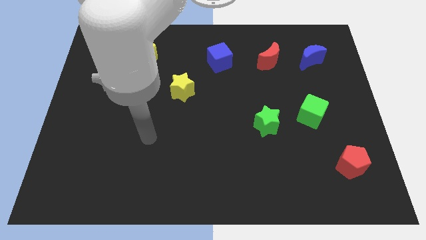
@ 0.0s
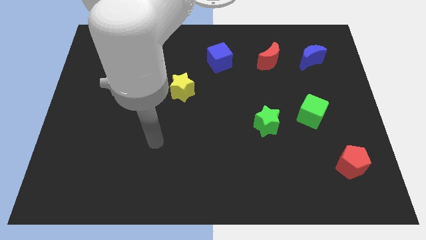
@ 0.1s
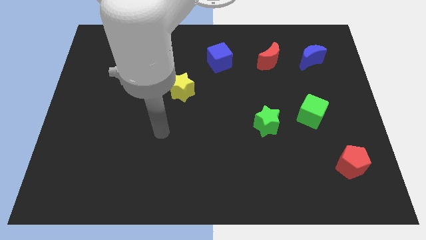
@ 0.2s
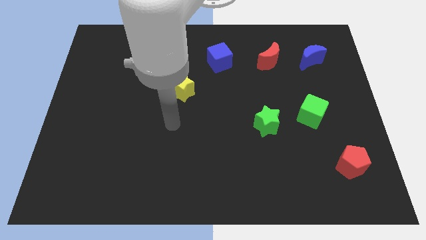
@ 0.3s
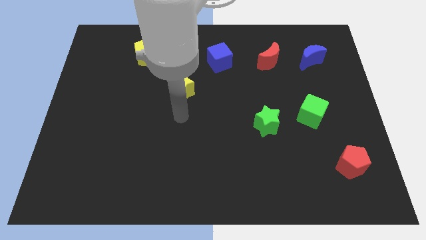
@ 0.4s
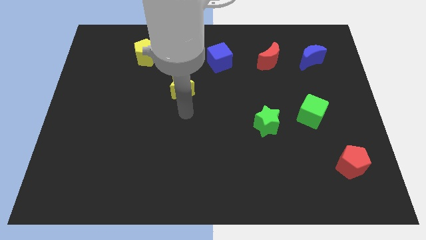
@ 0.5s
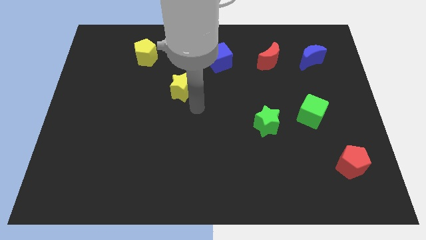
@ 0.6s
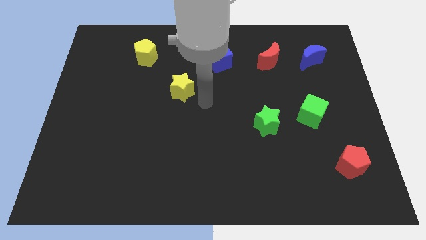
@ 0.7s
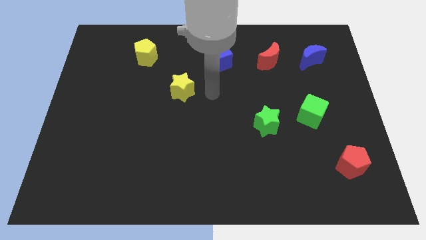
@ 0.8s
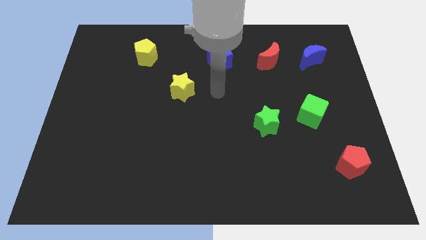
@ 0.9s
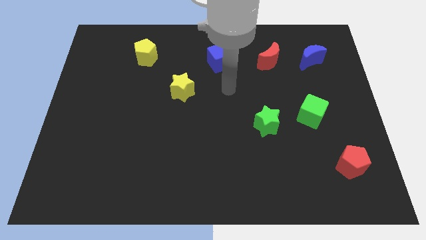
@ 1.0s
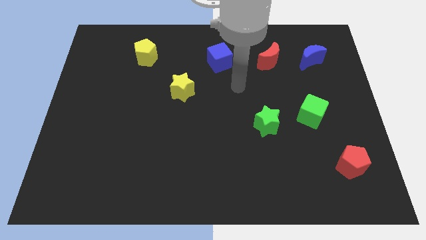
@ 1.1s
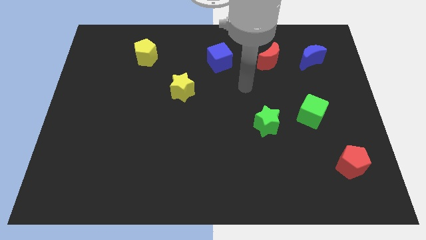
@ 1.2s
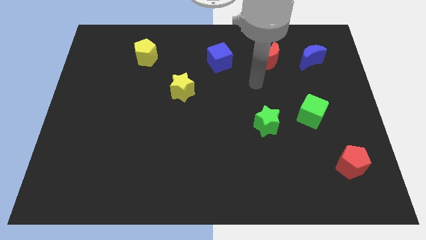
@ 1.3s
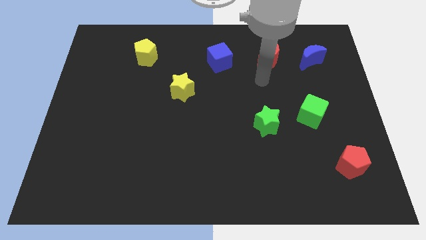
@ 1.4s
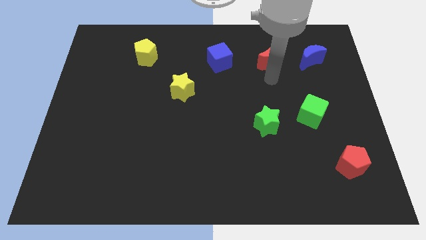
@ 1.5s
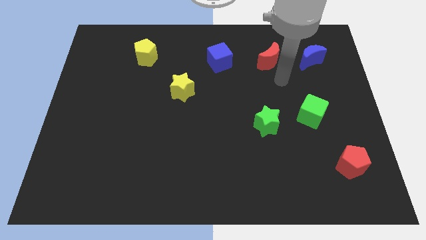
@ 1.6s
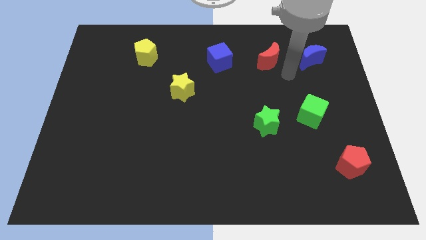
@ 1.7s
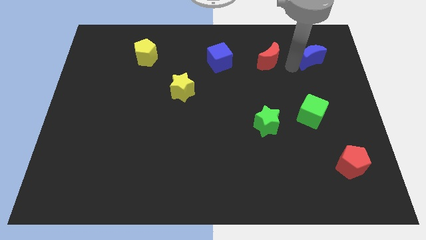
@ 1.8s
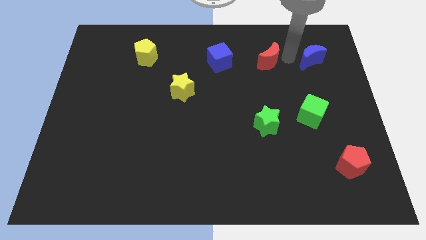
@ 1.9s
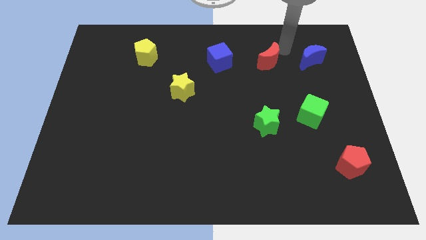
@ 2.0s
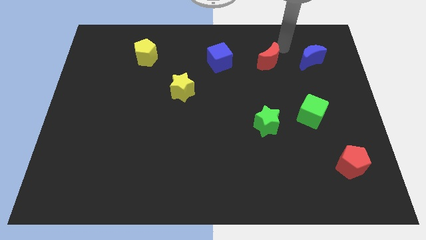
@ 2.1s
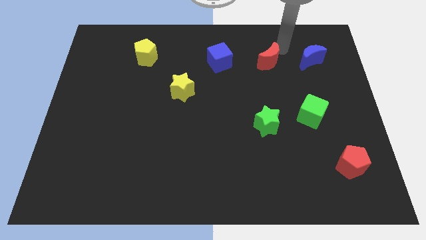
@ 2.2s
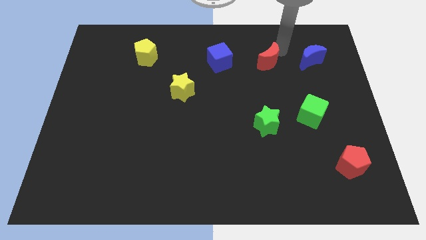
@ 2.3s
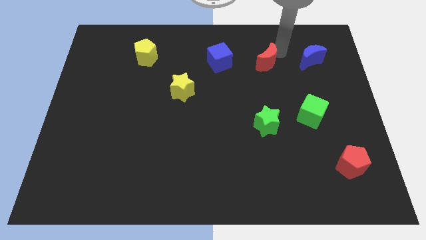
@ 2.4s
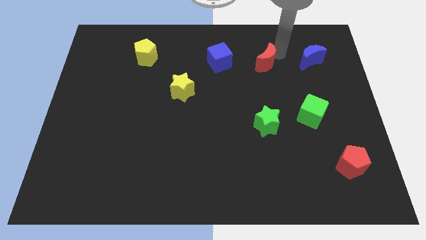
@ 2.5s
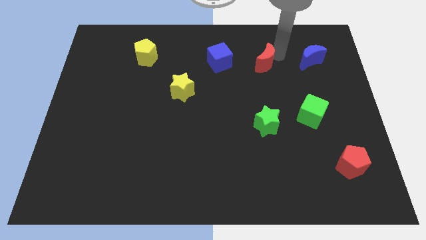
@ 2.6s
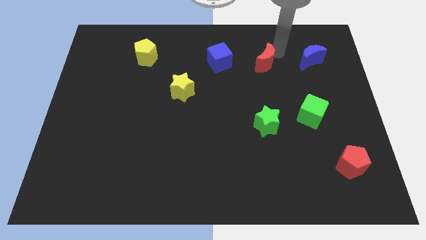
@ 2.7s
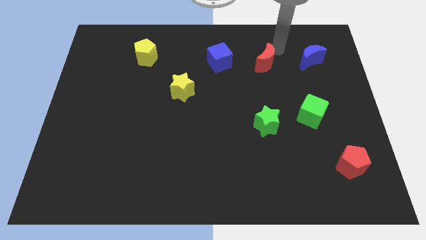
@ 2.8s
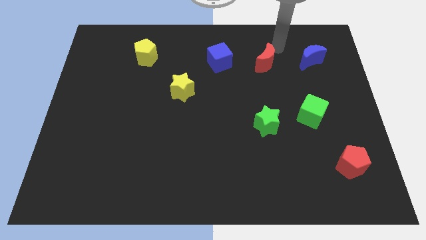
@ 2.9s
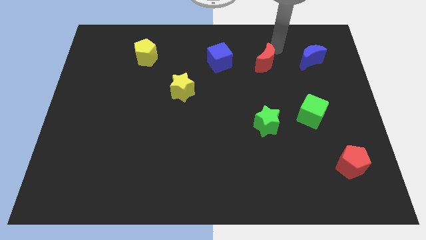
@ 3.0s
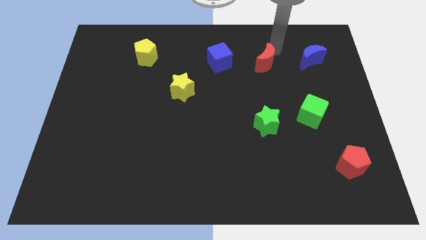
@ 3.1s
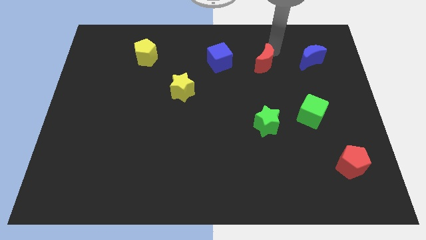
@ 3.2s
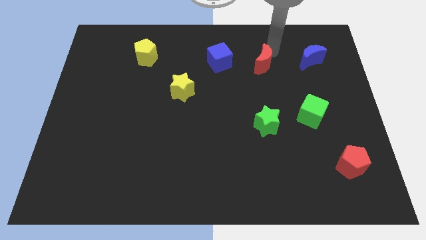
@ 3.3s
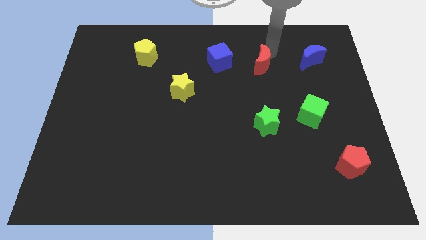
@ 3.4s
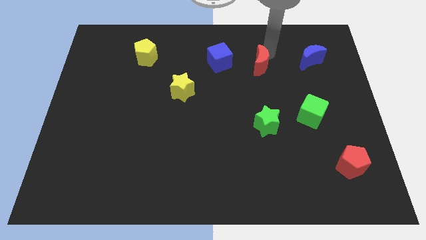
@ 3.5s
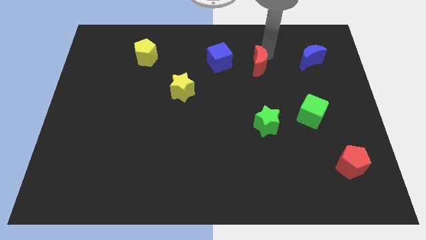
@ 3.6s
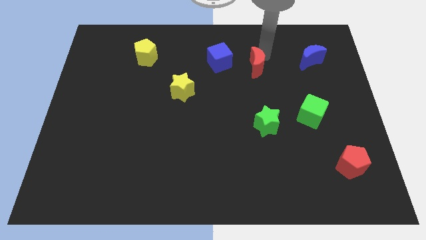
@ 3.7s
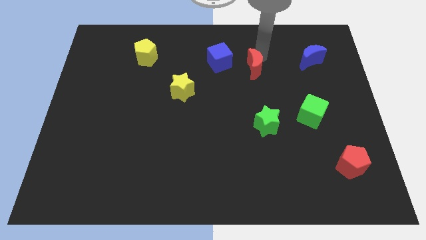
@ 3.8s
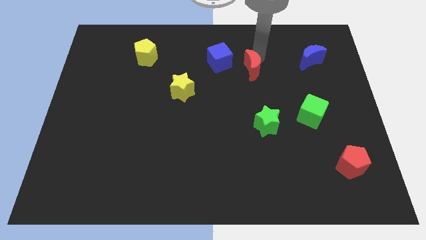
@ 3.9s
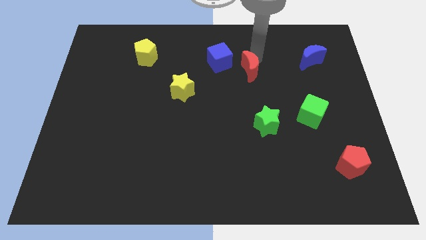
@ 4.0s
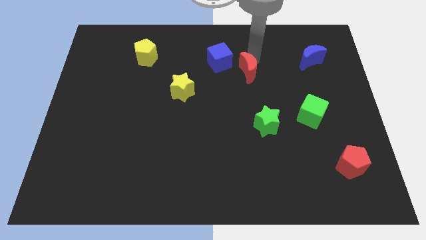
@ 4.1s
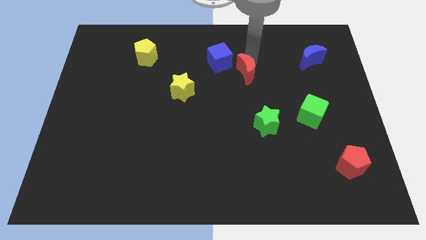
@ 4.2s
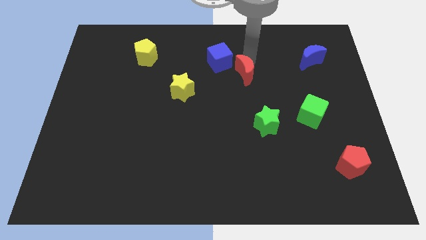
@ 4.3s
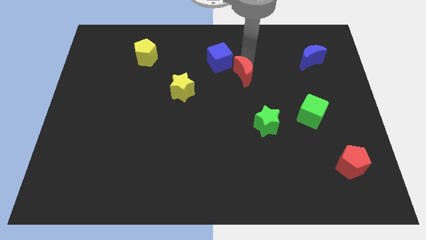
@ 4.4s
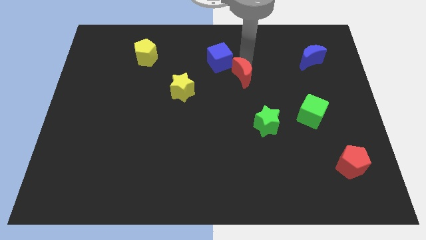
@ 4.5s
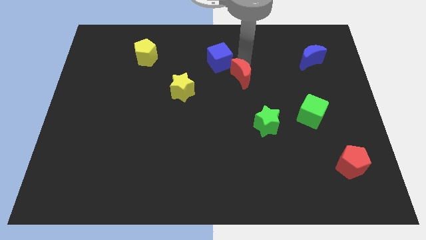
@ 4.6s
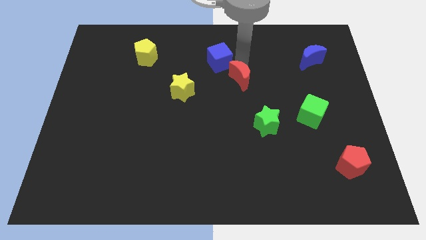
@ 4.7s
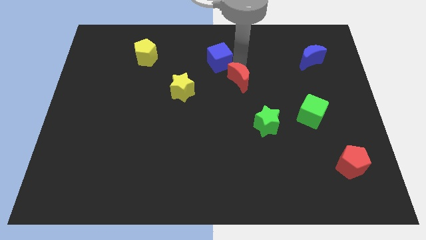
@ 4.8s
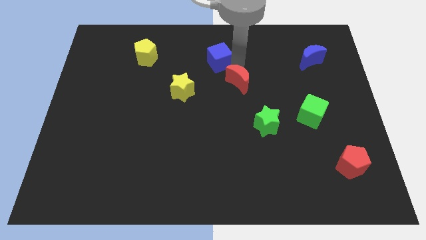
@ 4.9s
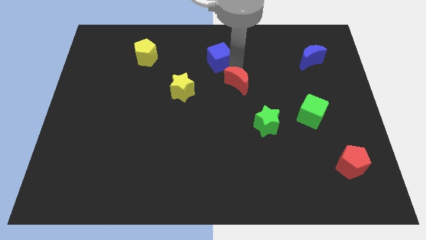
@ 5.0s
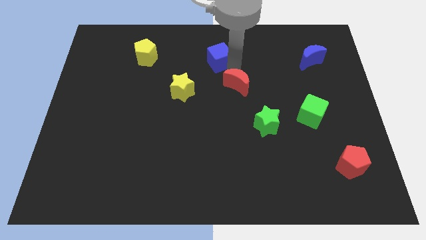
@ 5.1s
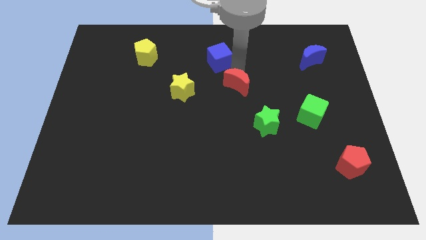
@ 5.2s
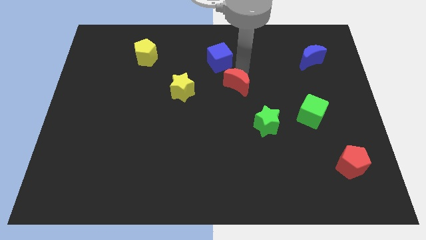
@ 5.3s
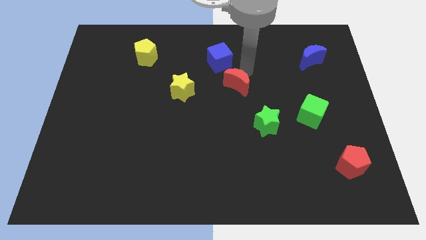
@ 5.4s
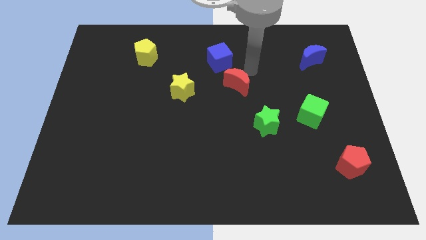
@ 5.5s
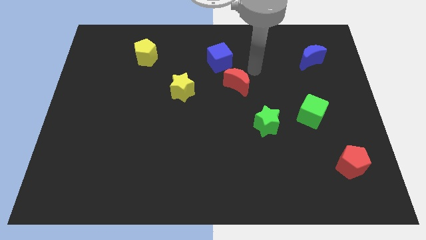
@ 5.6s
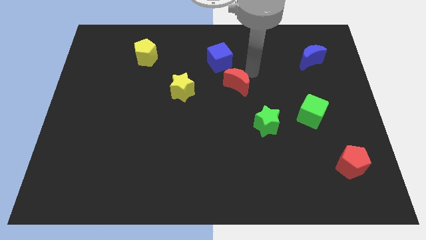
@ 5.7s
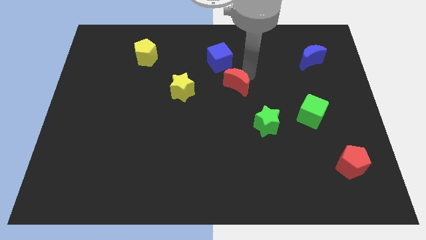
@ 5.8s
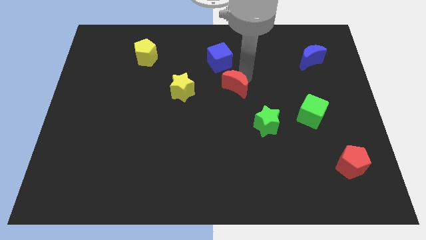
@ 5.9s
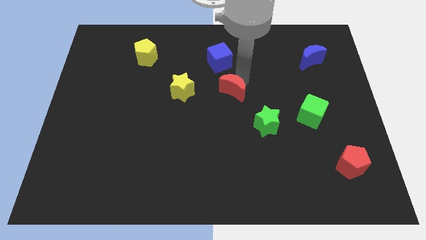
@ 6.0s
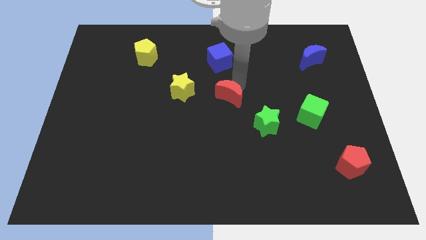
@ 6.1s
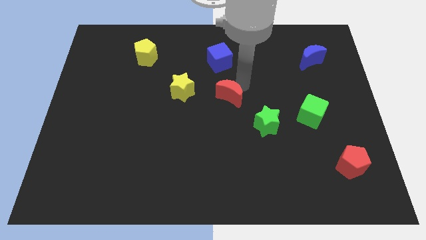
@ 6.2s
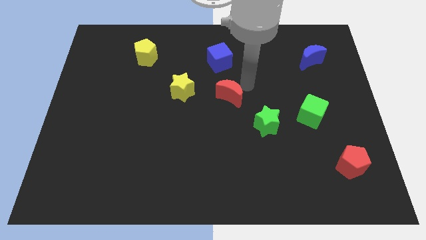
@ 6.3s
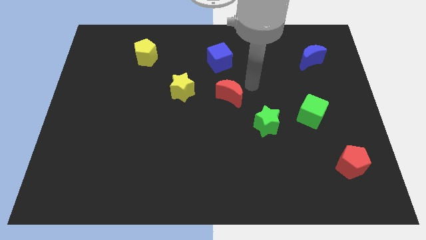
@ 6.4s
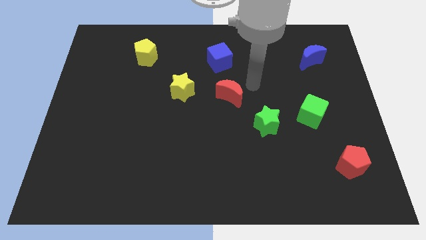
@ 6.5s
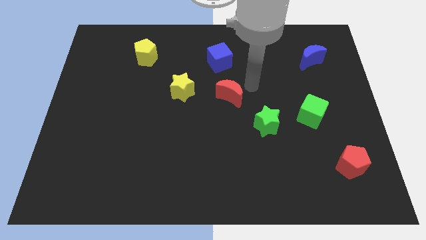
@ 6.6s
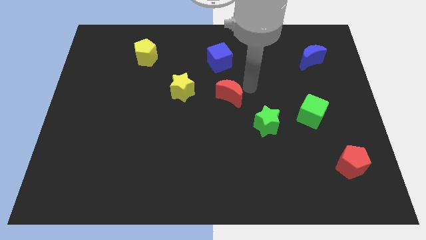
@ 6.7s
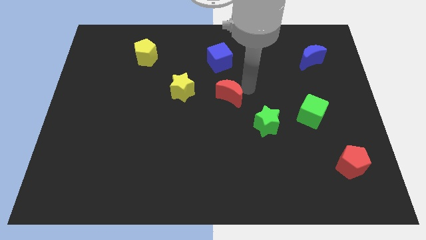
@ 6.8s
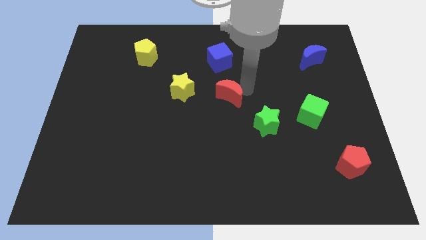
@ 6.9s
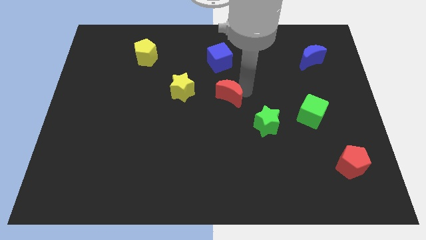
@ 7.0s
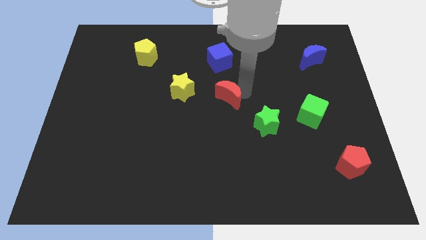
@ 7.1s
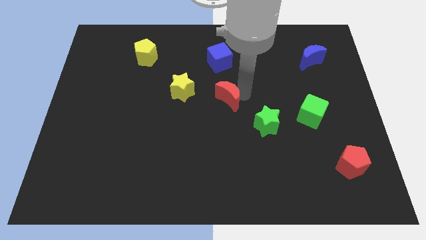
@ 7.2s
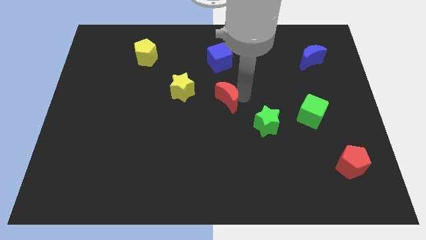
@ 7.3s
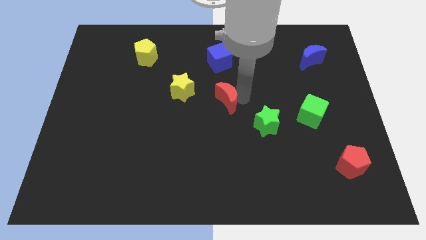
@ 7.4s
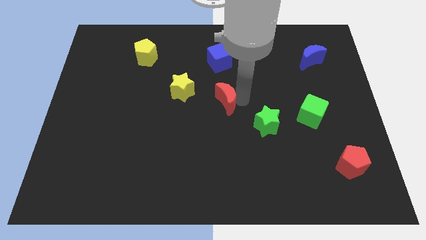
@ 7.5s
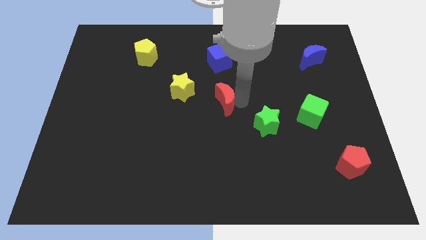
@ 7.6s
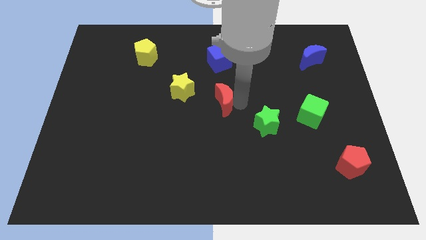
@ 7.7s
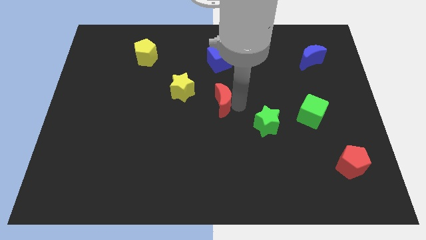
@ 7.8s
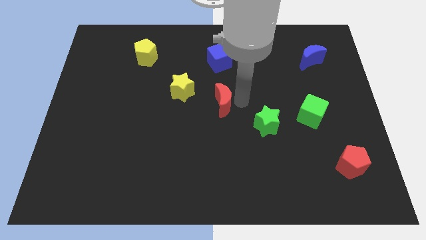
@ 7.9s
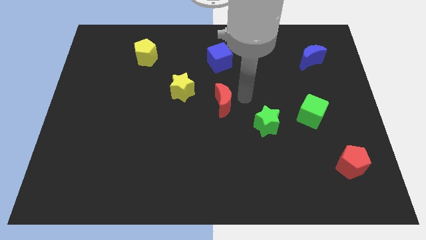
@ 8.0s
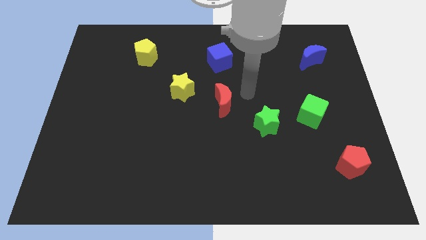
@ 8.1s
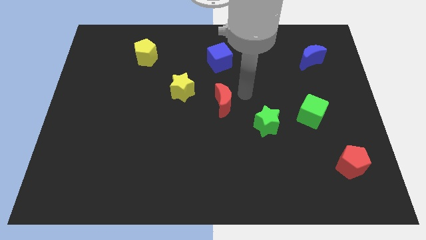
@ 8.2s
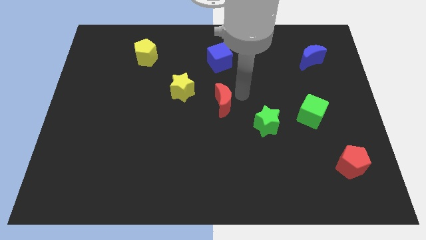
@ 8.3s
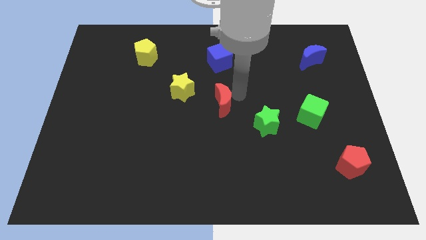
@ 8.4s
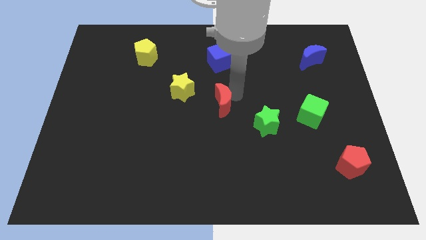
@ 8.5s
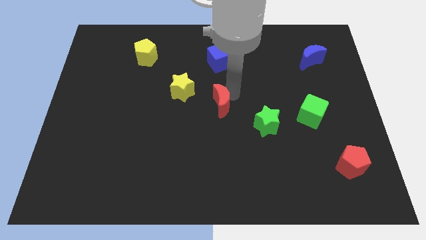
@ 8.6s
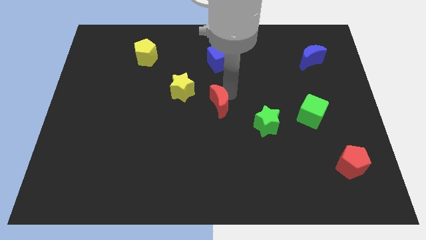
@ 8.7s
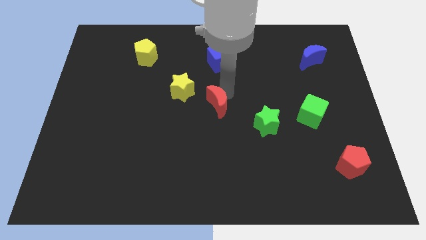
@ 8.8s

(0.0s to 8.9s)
slide the red moon down and then to the left
